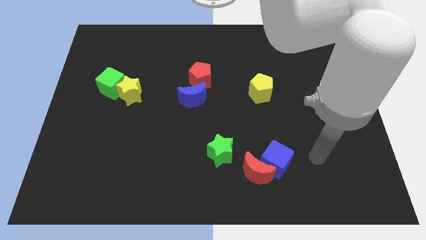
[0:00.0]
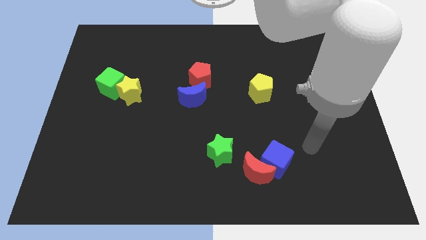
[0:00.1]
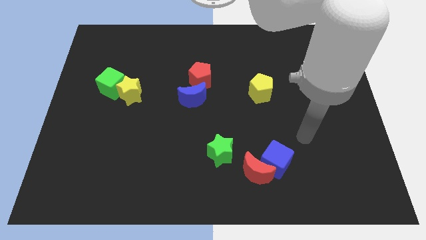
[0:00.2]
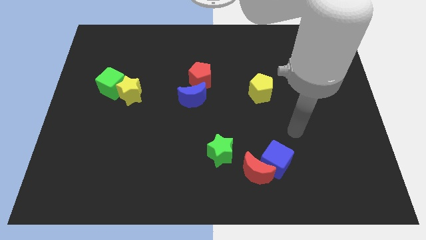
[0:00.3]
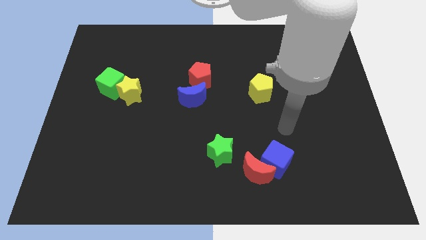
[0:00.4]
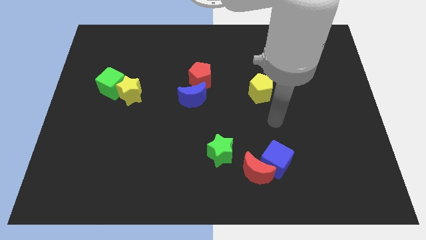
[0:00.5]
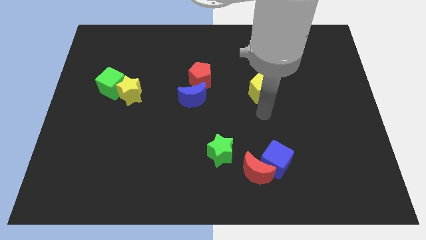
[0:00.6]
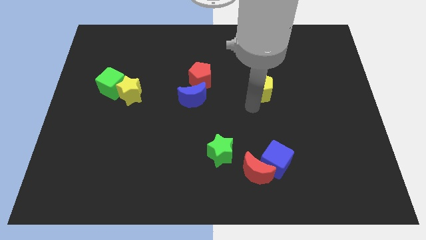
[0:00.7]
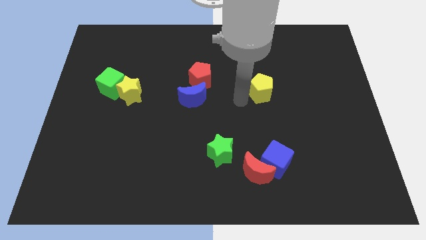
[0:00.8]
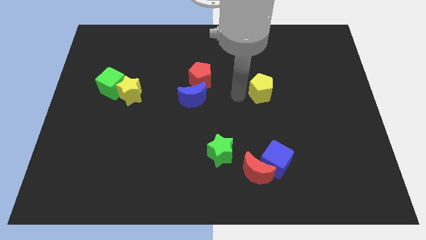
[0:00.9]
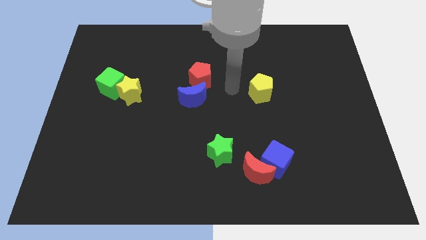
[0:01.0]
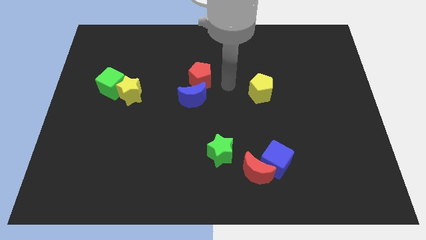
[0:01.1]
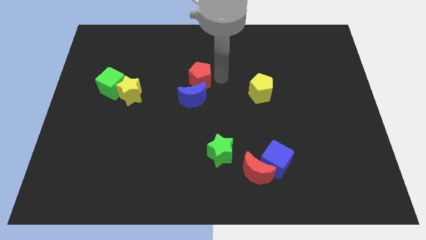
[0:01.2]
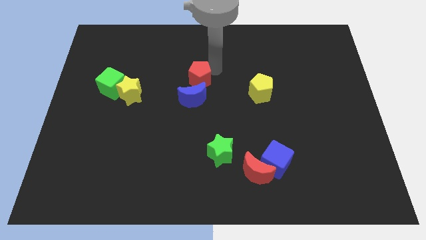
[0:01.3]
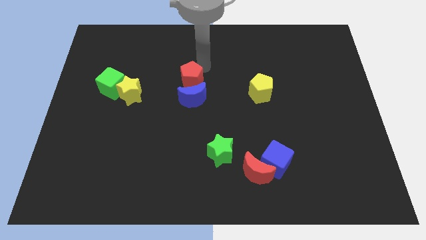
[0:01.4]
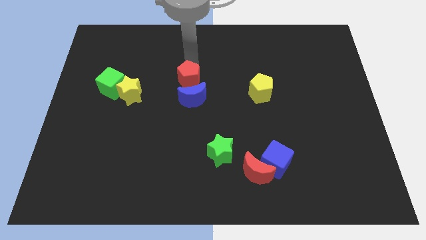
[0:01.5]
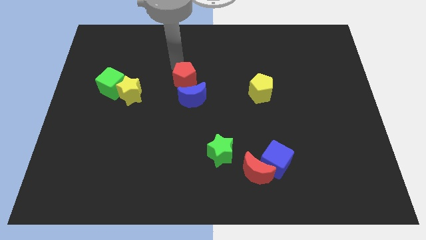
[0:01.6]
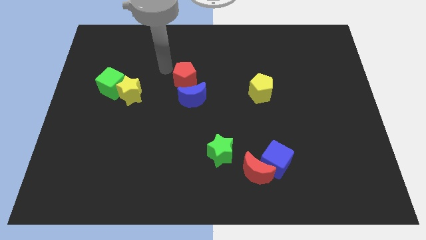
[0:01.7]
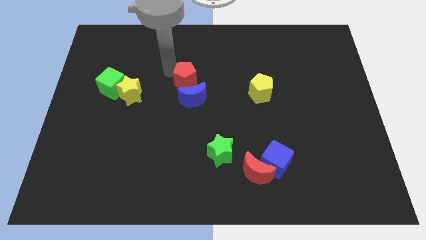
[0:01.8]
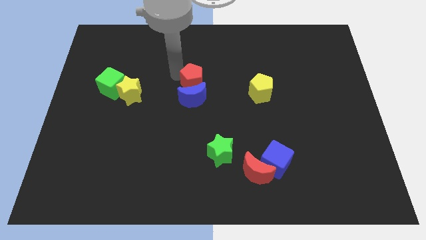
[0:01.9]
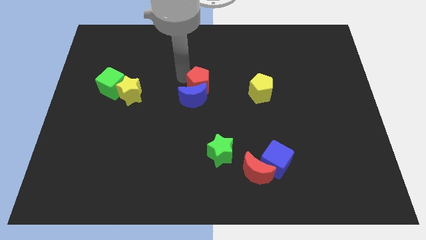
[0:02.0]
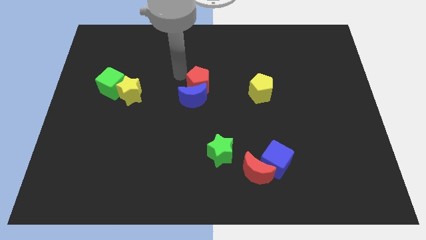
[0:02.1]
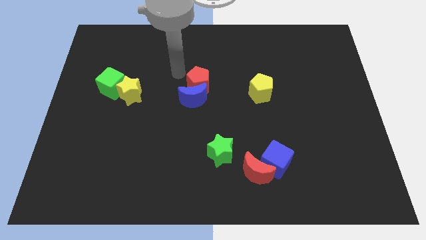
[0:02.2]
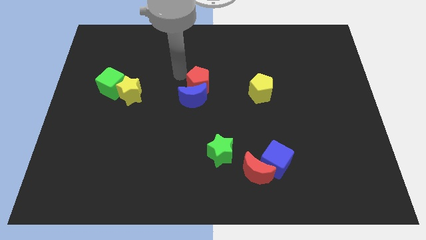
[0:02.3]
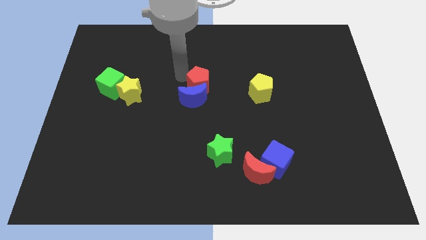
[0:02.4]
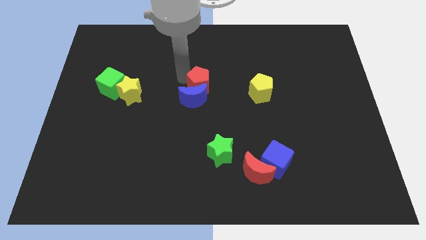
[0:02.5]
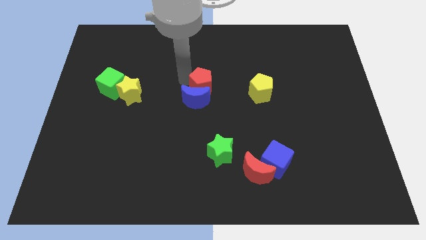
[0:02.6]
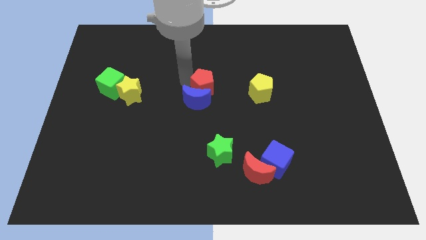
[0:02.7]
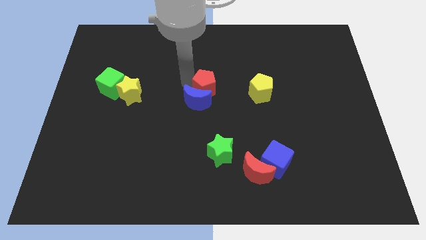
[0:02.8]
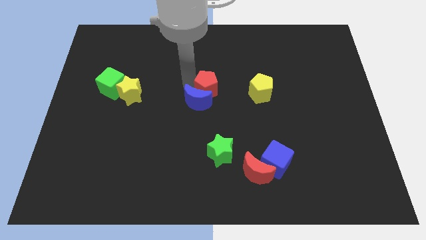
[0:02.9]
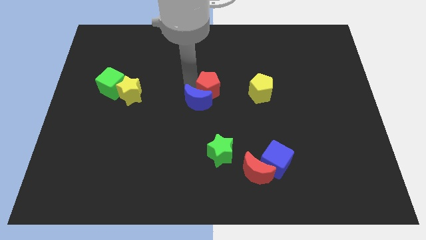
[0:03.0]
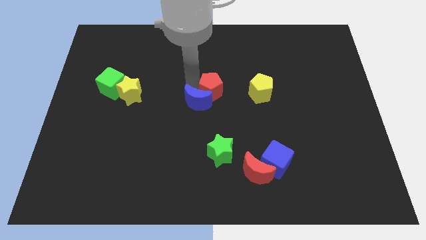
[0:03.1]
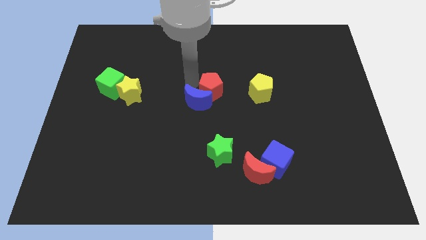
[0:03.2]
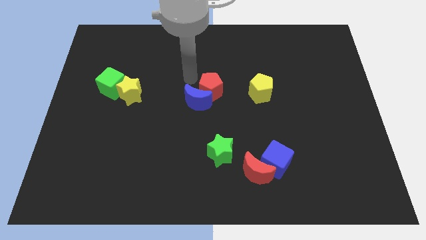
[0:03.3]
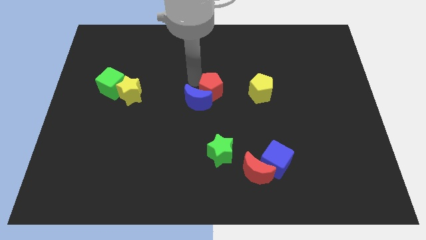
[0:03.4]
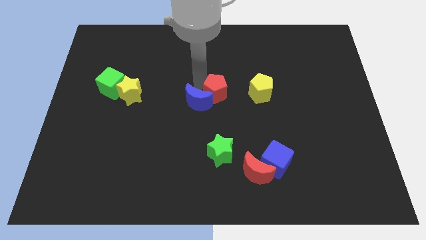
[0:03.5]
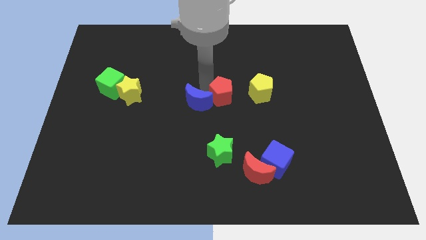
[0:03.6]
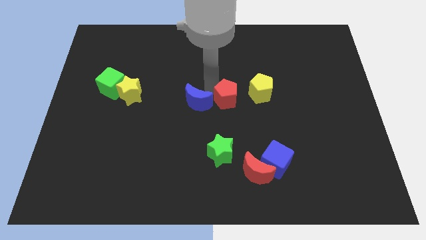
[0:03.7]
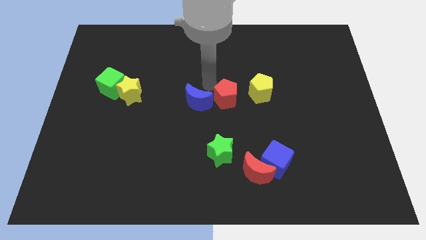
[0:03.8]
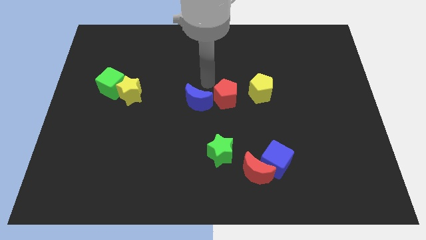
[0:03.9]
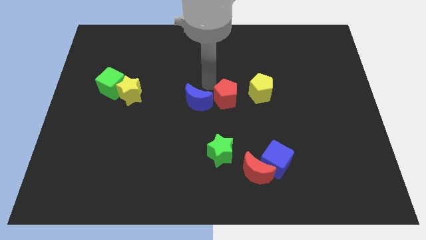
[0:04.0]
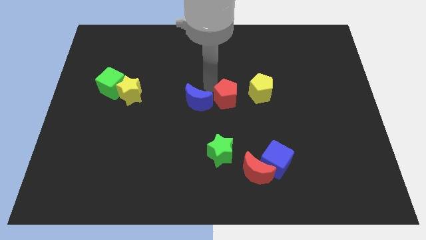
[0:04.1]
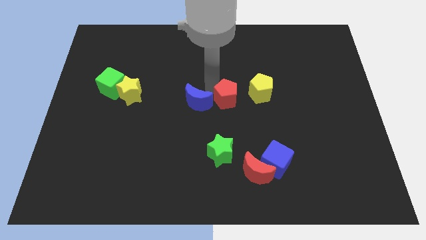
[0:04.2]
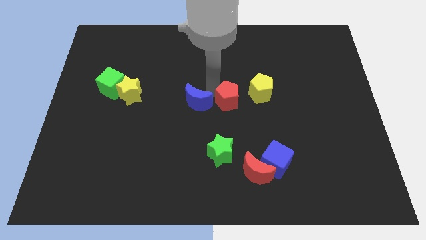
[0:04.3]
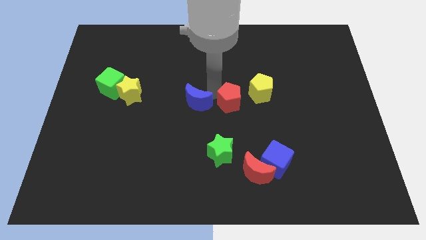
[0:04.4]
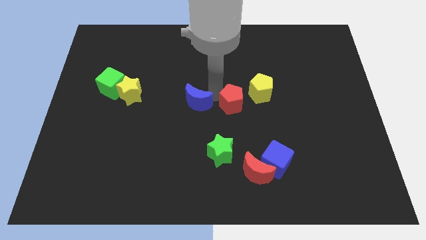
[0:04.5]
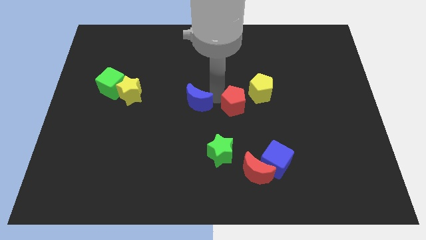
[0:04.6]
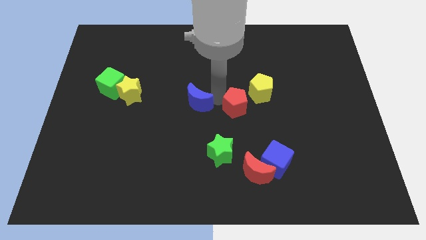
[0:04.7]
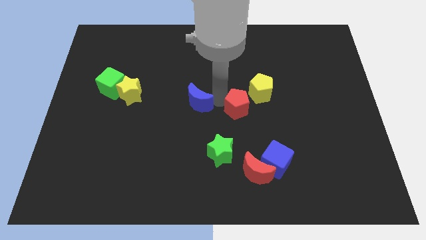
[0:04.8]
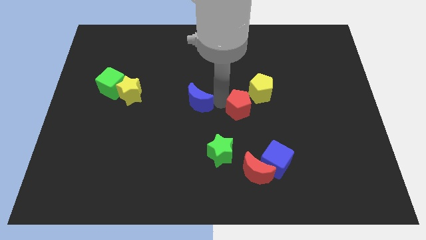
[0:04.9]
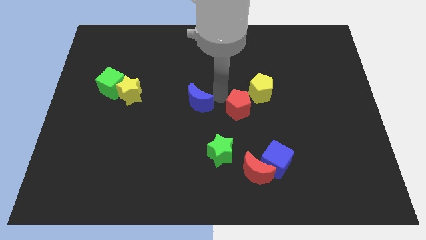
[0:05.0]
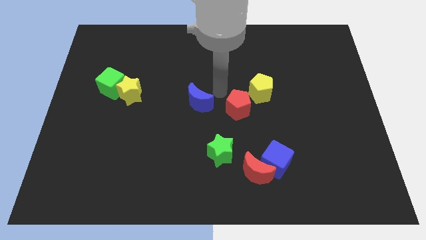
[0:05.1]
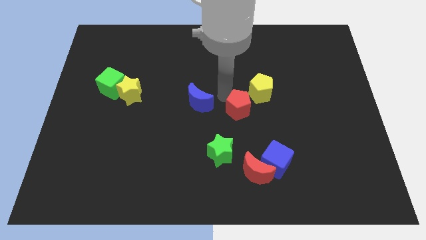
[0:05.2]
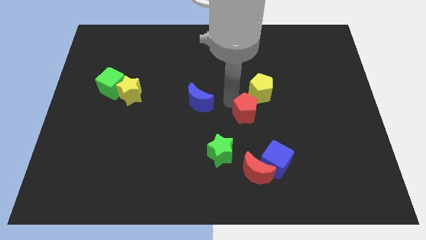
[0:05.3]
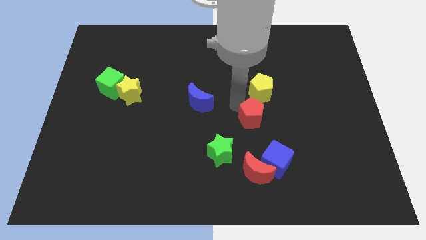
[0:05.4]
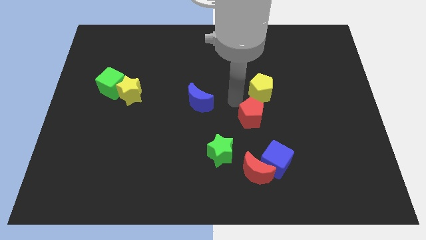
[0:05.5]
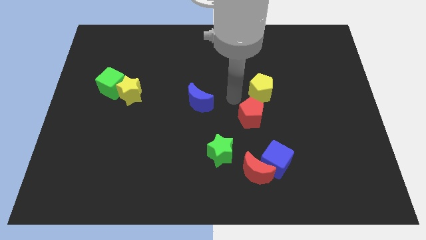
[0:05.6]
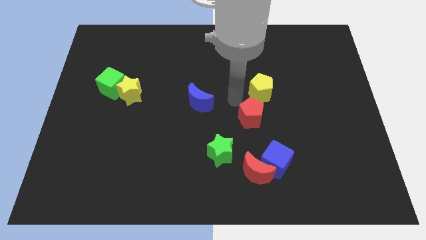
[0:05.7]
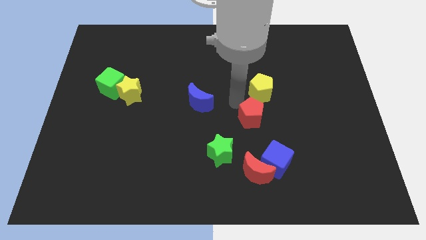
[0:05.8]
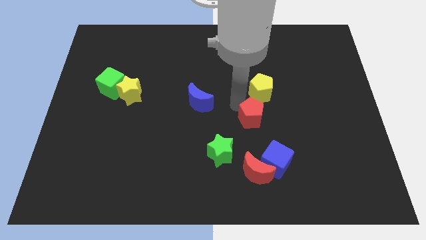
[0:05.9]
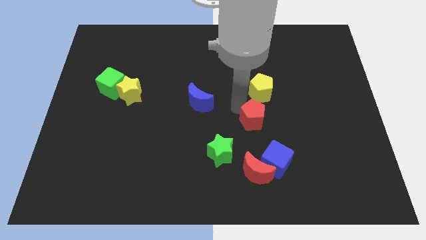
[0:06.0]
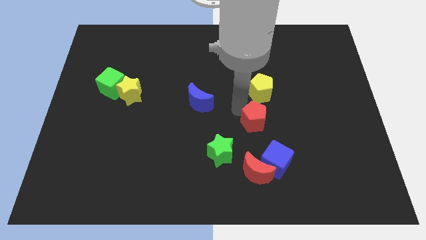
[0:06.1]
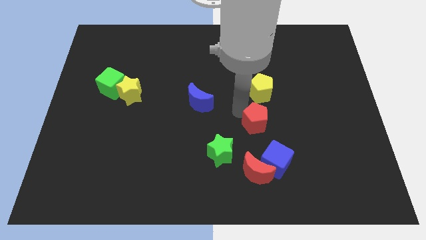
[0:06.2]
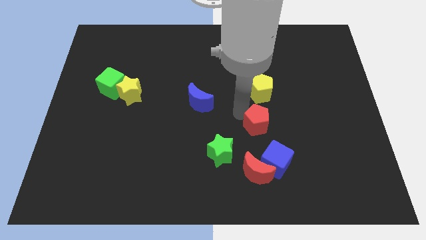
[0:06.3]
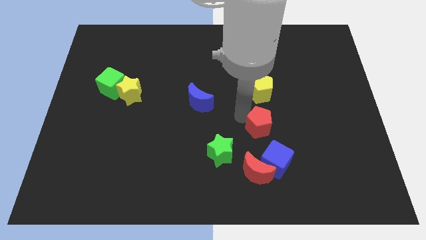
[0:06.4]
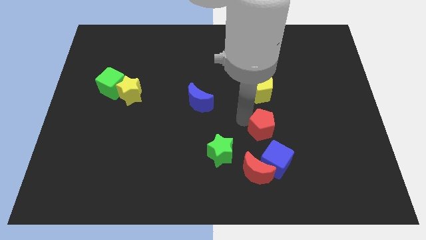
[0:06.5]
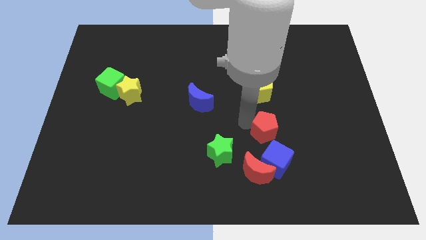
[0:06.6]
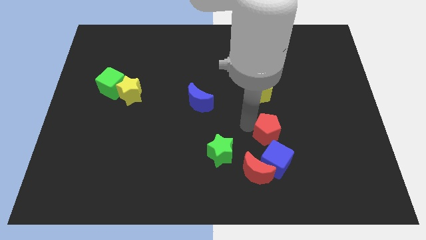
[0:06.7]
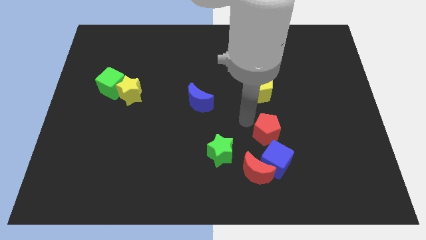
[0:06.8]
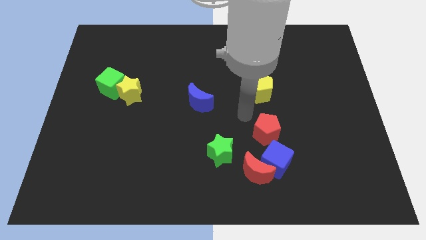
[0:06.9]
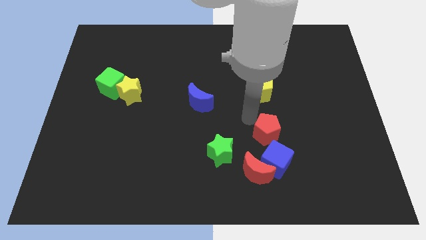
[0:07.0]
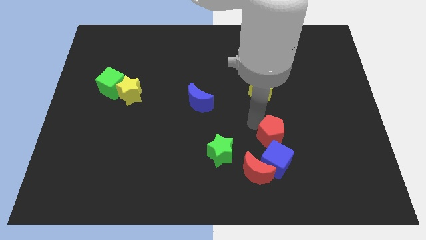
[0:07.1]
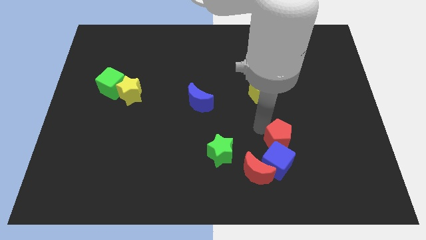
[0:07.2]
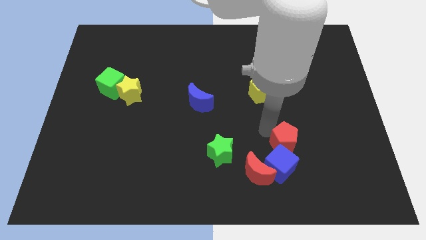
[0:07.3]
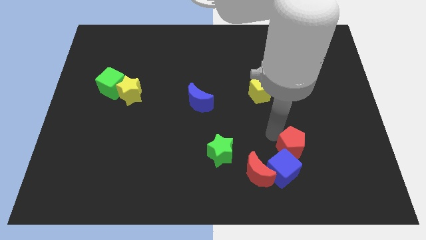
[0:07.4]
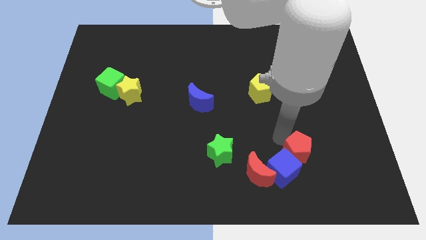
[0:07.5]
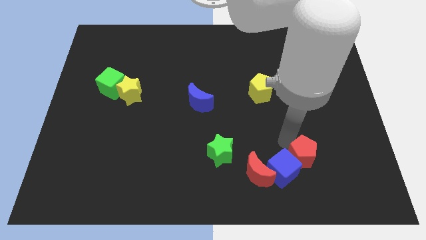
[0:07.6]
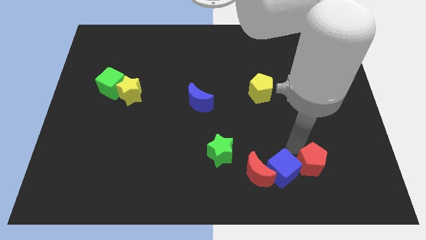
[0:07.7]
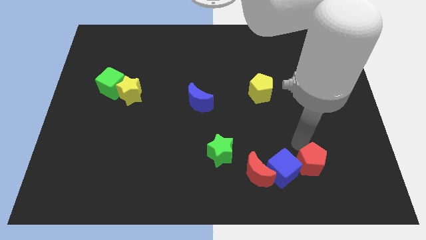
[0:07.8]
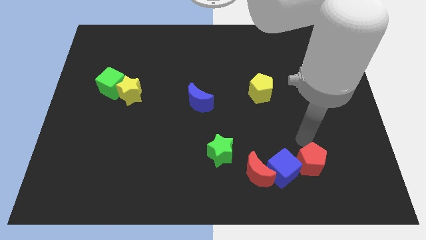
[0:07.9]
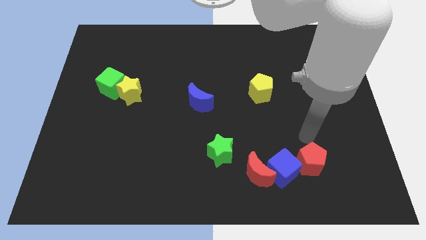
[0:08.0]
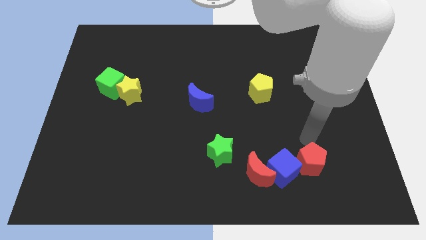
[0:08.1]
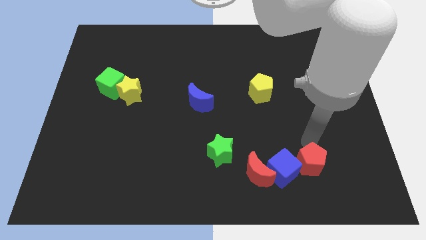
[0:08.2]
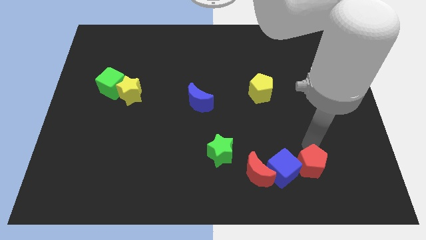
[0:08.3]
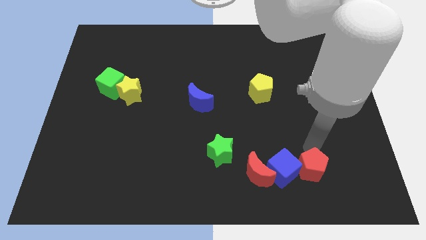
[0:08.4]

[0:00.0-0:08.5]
put the red pentagon diagonally down and to the right of the blue cube
